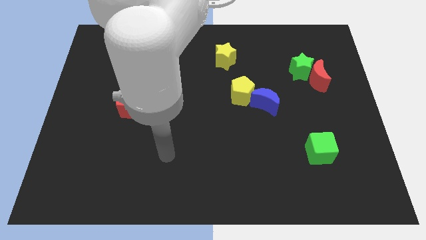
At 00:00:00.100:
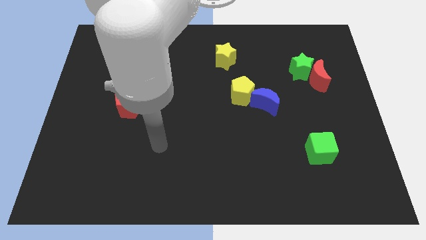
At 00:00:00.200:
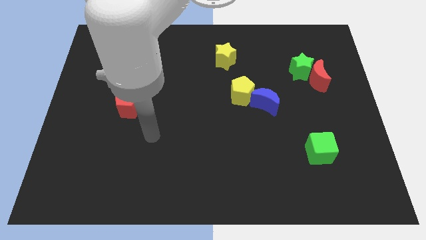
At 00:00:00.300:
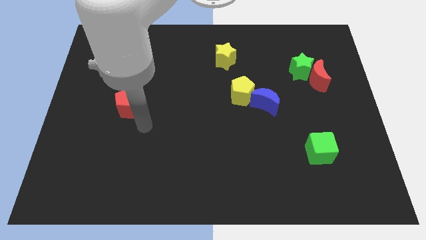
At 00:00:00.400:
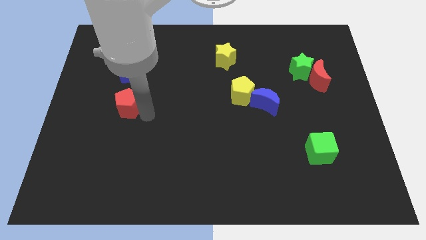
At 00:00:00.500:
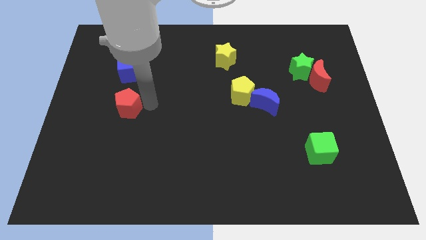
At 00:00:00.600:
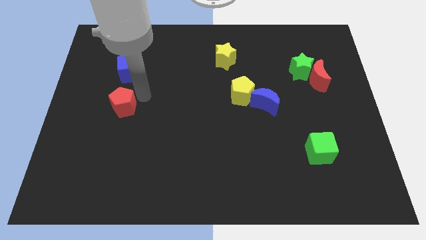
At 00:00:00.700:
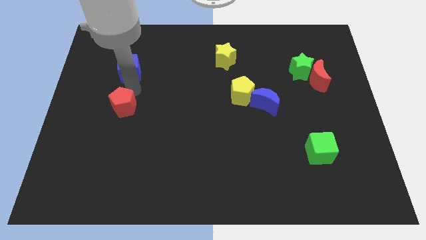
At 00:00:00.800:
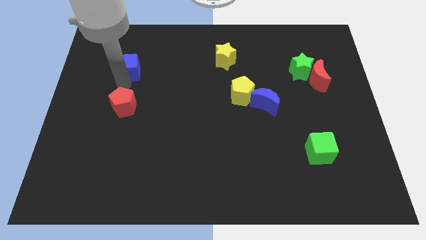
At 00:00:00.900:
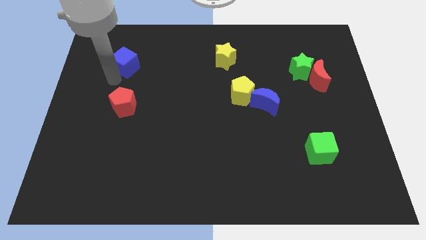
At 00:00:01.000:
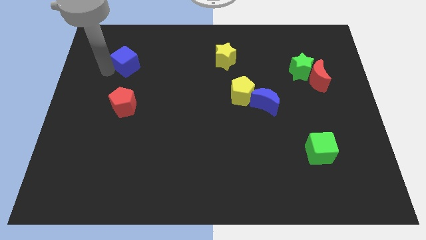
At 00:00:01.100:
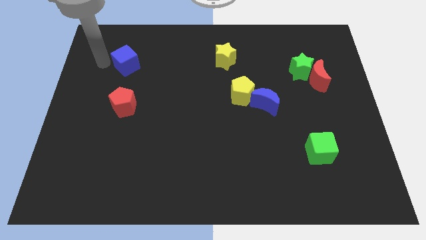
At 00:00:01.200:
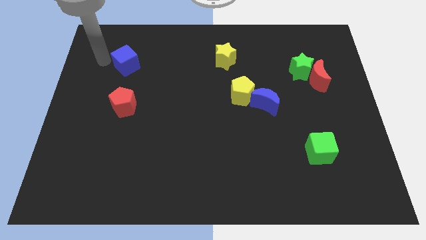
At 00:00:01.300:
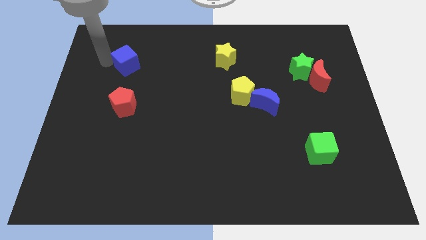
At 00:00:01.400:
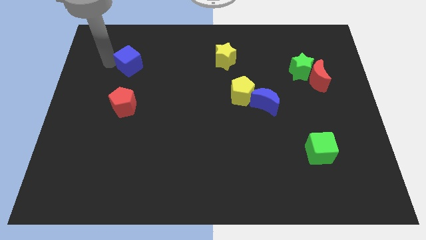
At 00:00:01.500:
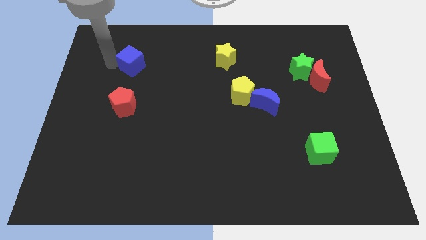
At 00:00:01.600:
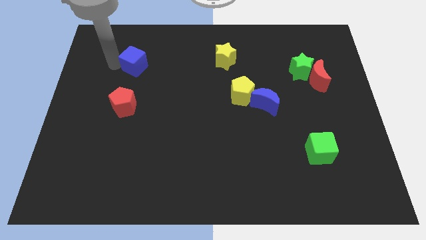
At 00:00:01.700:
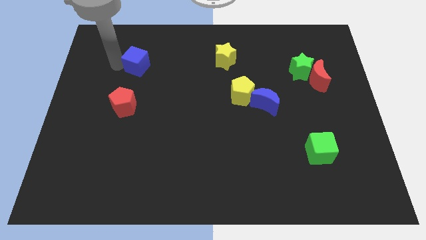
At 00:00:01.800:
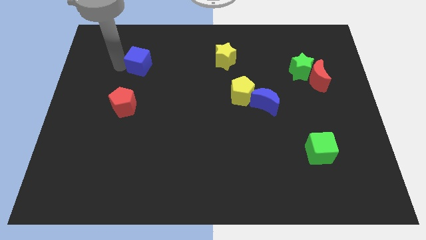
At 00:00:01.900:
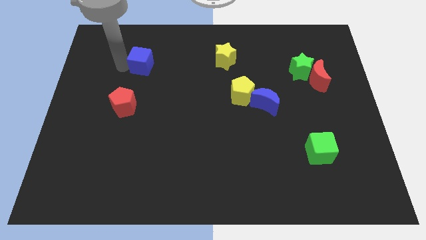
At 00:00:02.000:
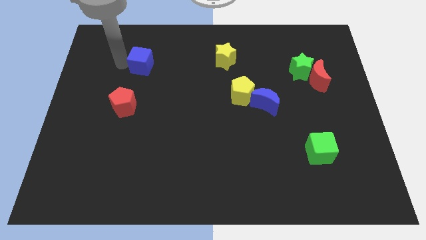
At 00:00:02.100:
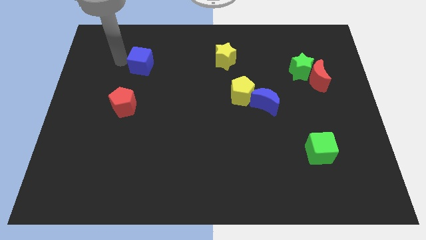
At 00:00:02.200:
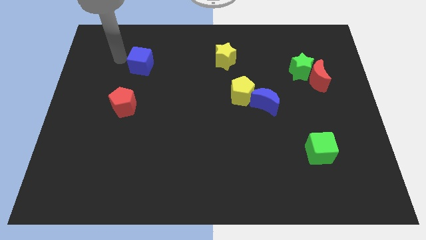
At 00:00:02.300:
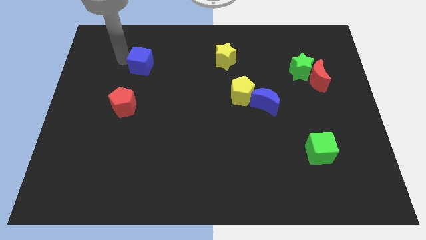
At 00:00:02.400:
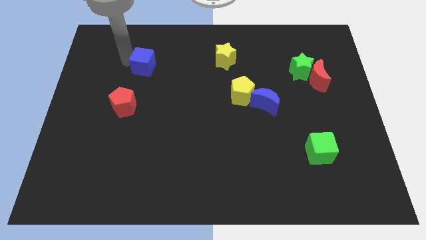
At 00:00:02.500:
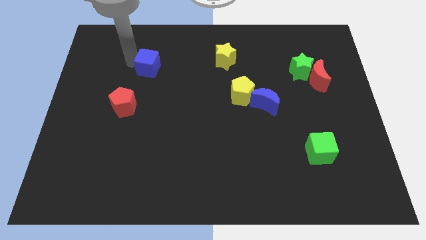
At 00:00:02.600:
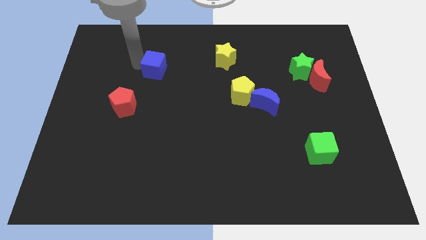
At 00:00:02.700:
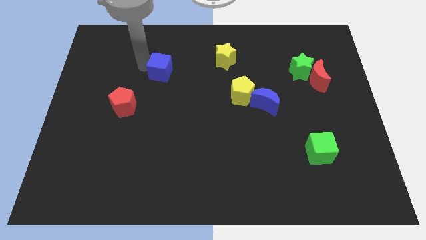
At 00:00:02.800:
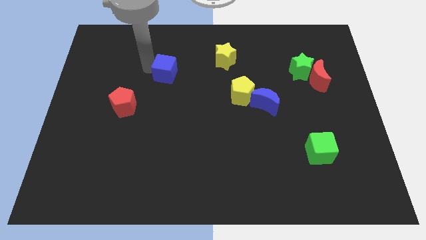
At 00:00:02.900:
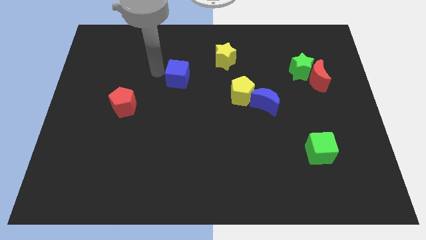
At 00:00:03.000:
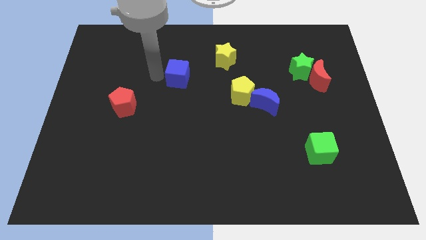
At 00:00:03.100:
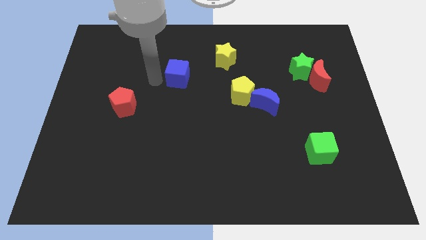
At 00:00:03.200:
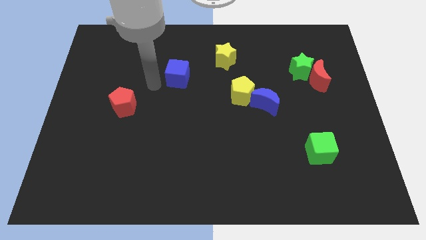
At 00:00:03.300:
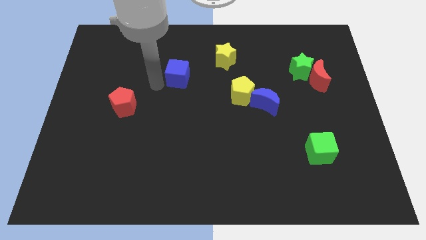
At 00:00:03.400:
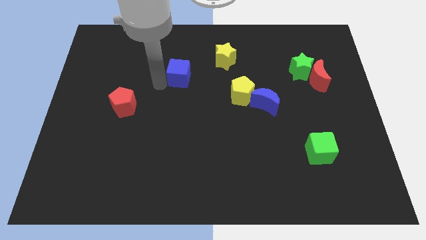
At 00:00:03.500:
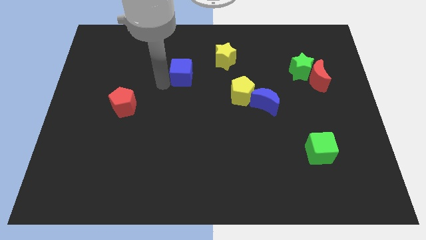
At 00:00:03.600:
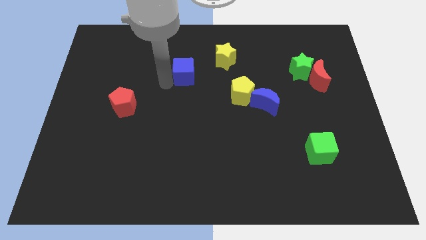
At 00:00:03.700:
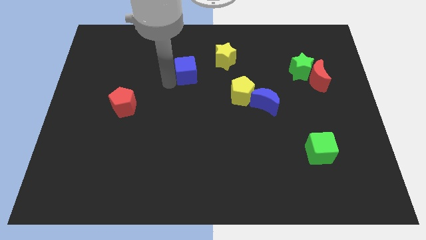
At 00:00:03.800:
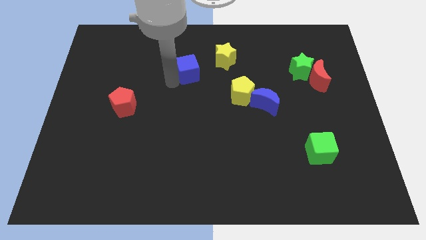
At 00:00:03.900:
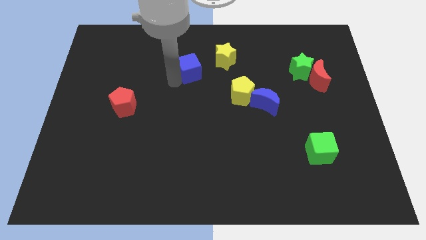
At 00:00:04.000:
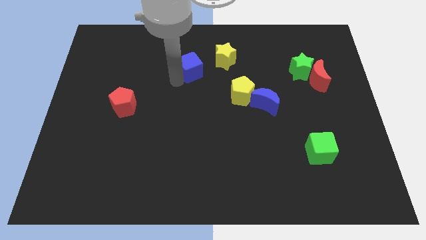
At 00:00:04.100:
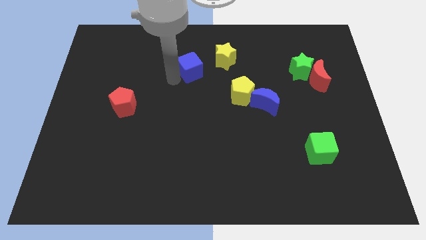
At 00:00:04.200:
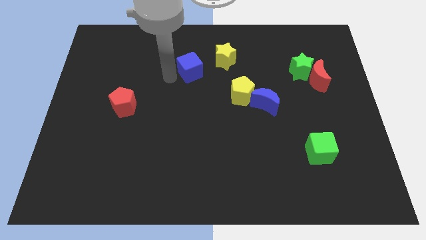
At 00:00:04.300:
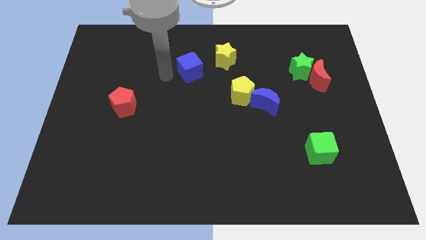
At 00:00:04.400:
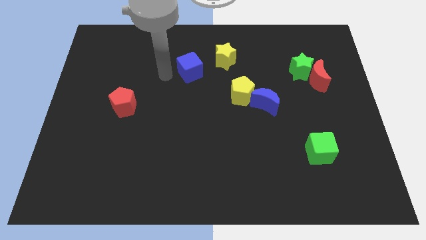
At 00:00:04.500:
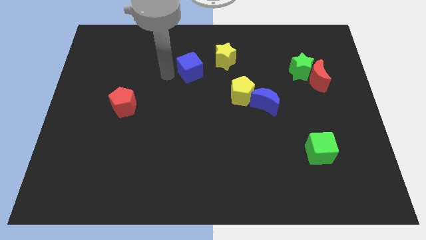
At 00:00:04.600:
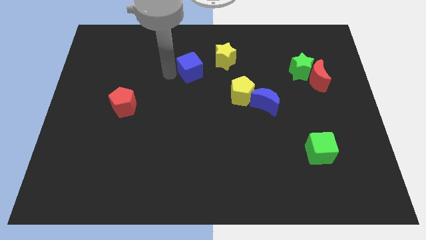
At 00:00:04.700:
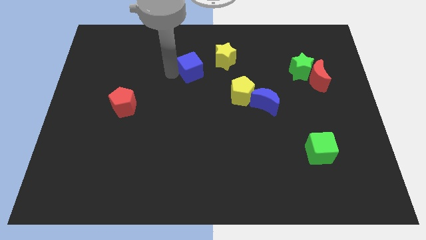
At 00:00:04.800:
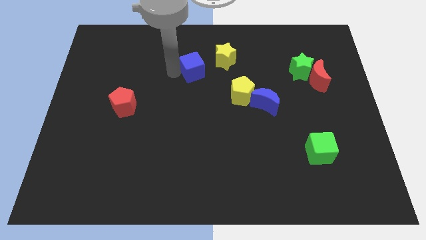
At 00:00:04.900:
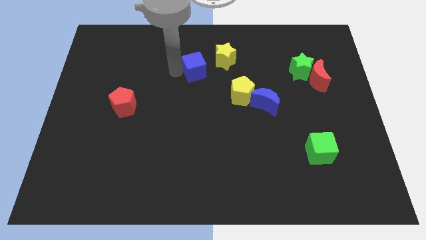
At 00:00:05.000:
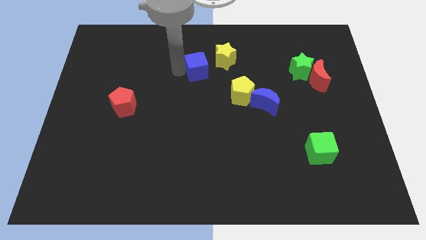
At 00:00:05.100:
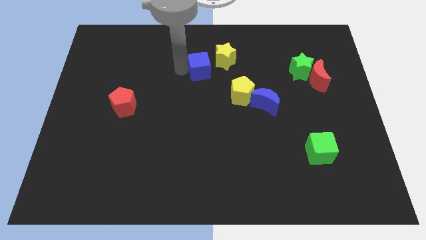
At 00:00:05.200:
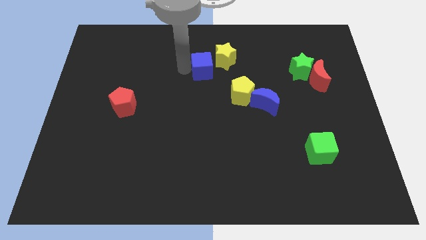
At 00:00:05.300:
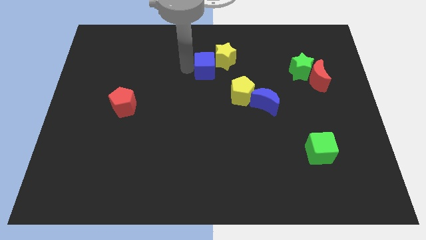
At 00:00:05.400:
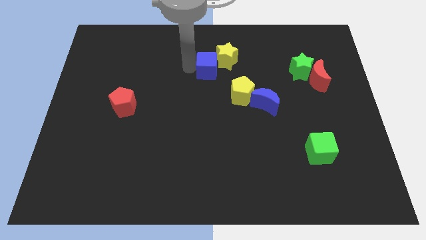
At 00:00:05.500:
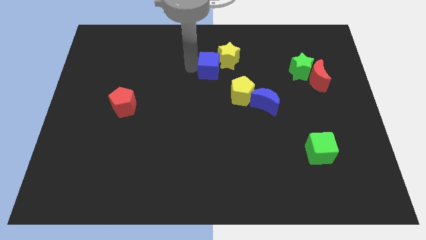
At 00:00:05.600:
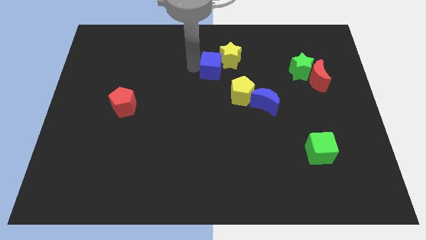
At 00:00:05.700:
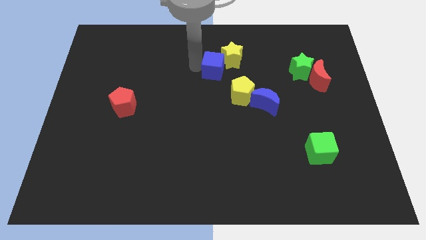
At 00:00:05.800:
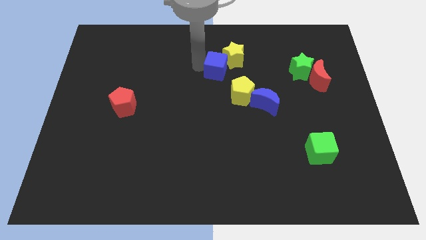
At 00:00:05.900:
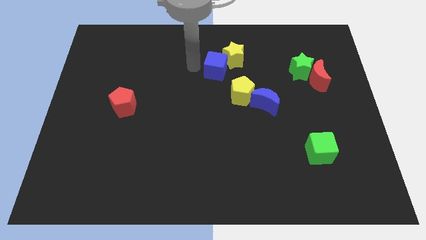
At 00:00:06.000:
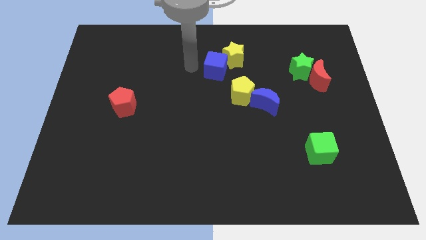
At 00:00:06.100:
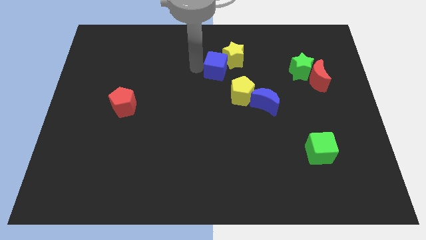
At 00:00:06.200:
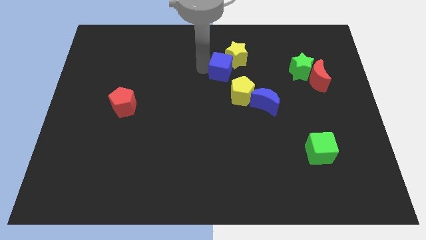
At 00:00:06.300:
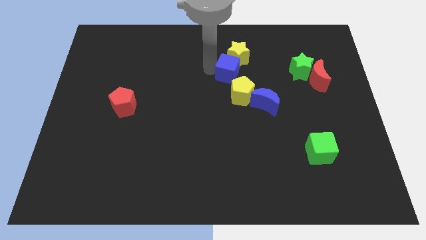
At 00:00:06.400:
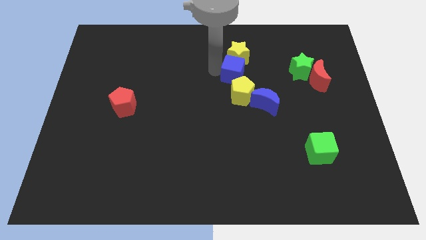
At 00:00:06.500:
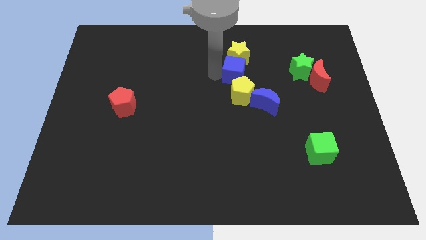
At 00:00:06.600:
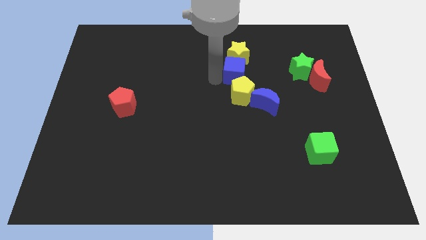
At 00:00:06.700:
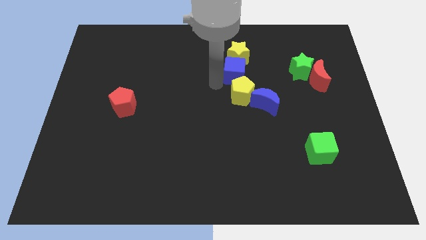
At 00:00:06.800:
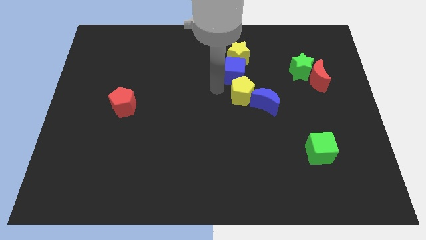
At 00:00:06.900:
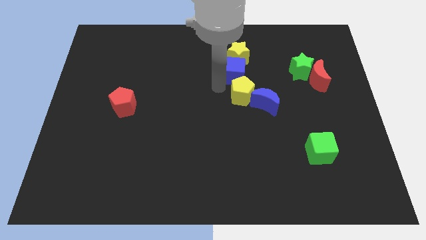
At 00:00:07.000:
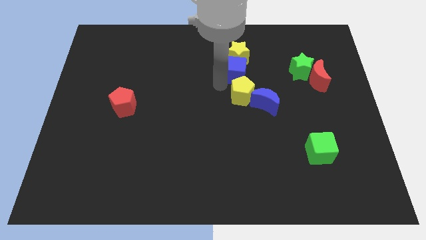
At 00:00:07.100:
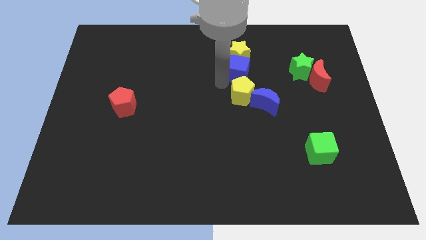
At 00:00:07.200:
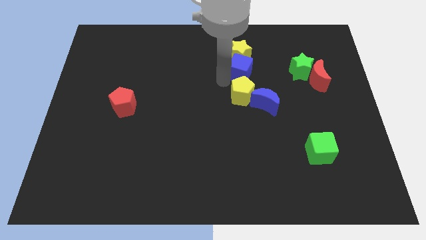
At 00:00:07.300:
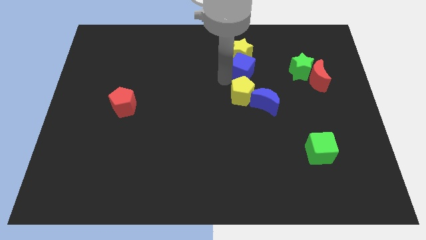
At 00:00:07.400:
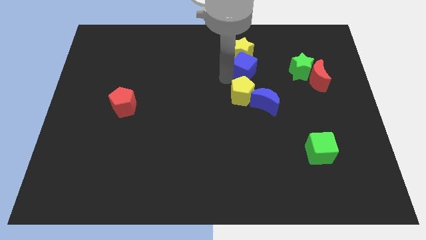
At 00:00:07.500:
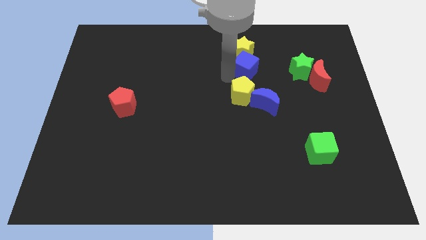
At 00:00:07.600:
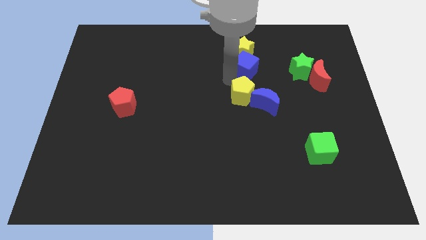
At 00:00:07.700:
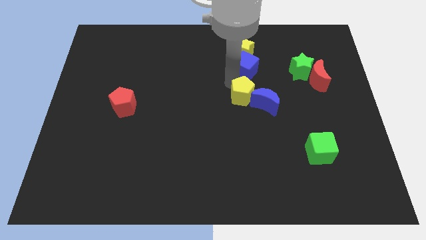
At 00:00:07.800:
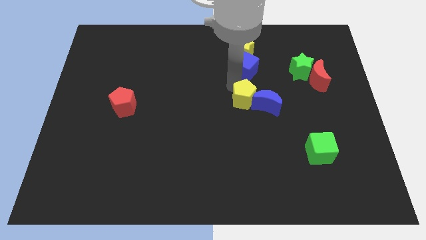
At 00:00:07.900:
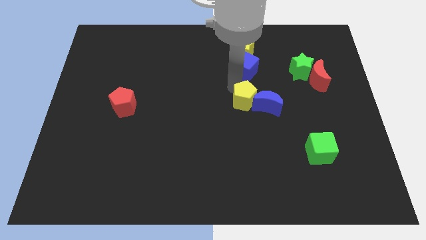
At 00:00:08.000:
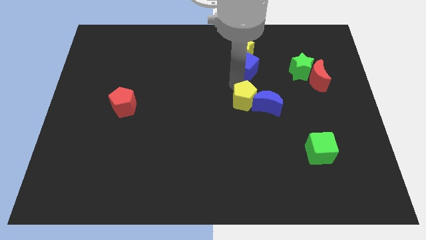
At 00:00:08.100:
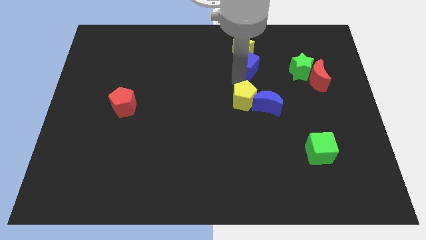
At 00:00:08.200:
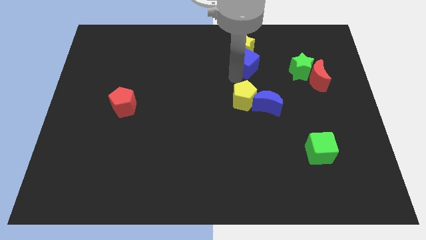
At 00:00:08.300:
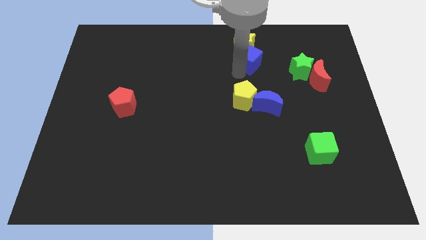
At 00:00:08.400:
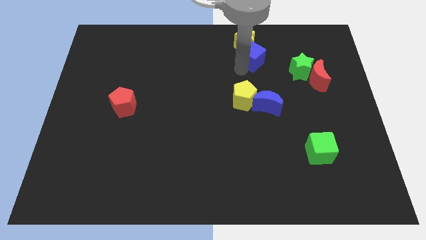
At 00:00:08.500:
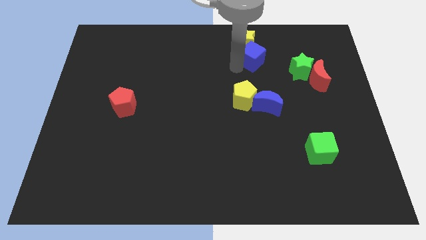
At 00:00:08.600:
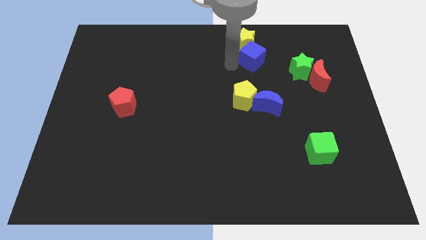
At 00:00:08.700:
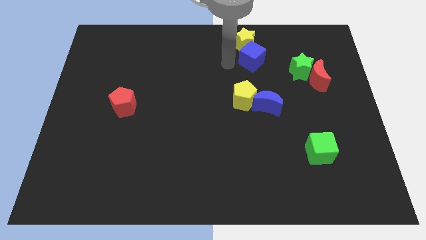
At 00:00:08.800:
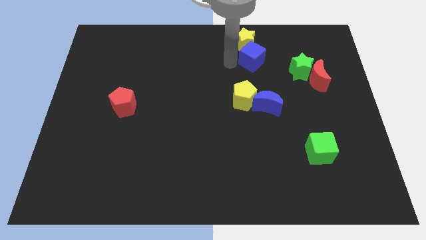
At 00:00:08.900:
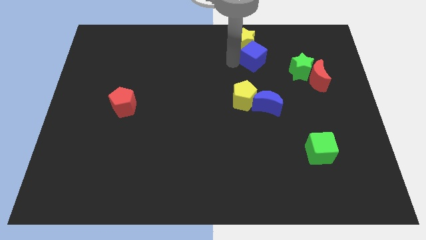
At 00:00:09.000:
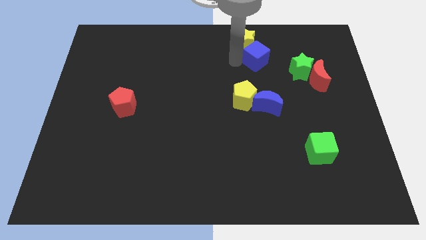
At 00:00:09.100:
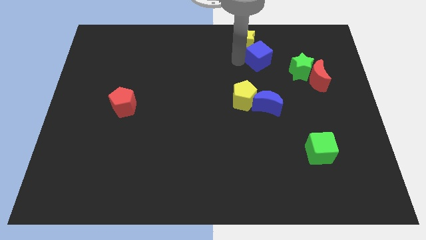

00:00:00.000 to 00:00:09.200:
push the blue cube to the top left of the green star
